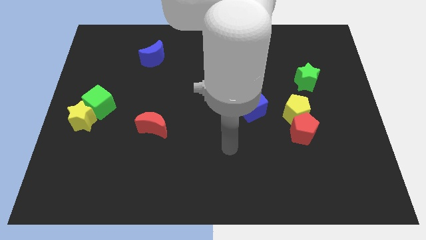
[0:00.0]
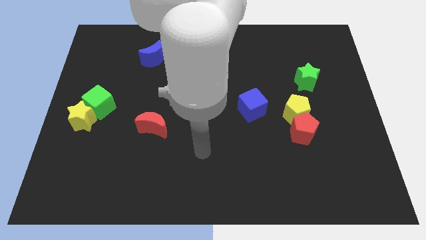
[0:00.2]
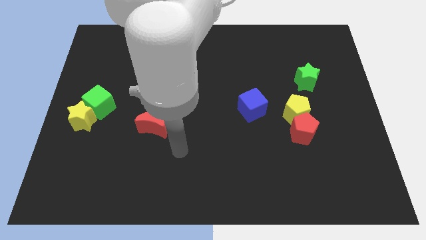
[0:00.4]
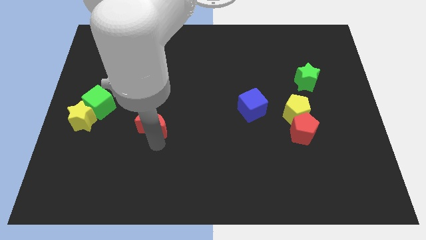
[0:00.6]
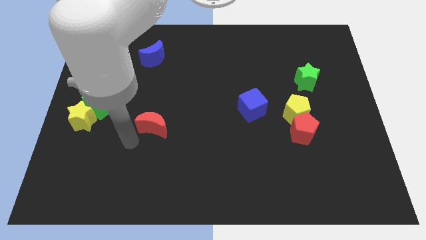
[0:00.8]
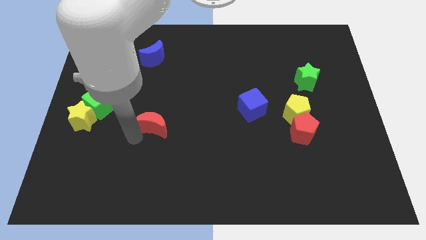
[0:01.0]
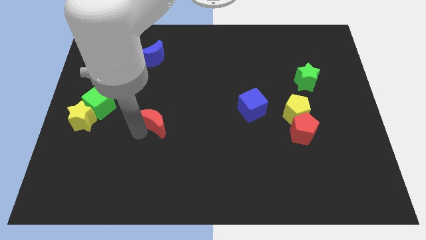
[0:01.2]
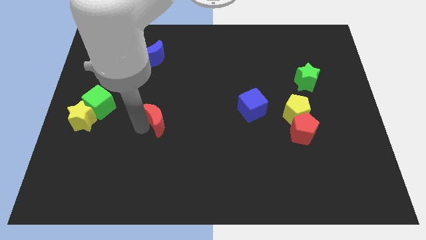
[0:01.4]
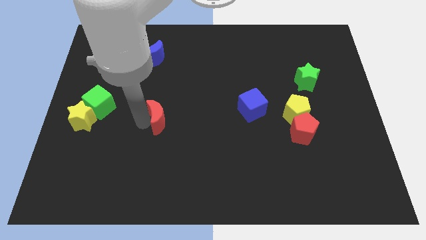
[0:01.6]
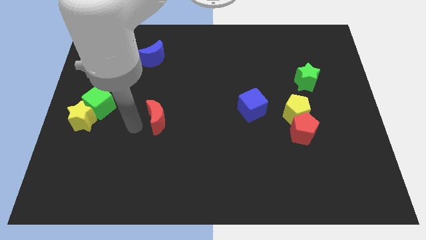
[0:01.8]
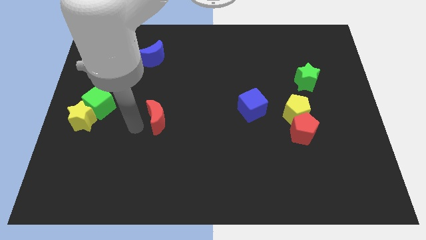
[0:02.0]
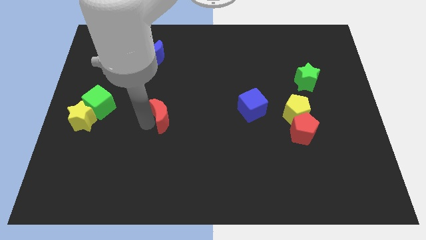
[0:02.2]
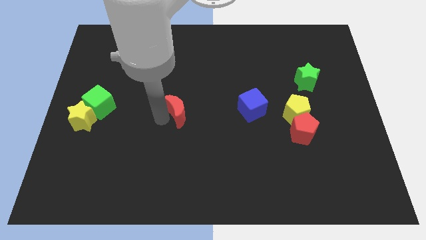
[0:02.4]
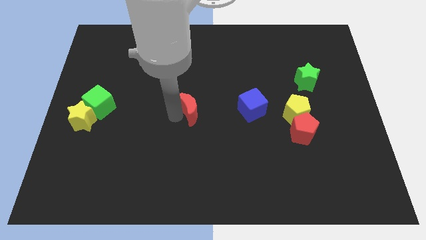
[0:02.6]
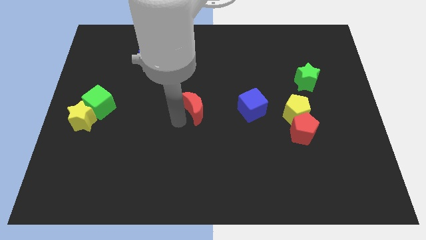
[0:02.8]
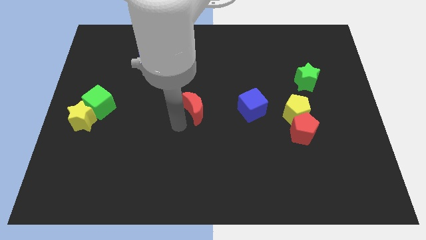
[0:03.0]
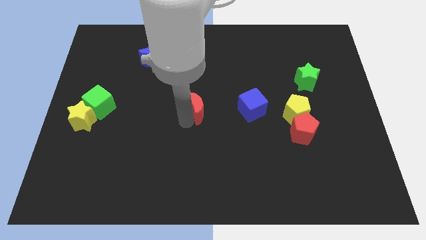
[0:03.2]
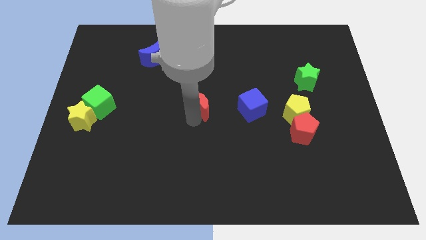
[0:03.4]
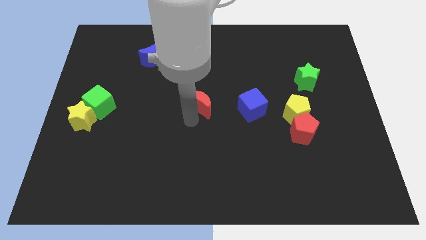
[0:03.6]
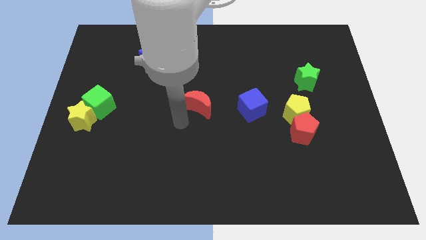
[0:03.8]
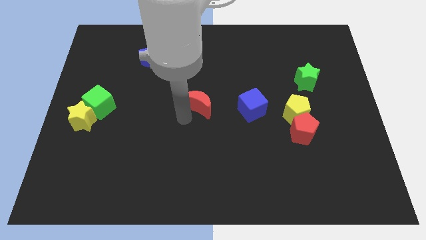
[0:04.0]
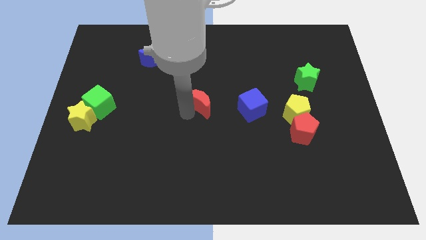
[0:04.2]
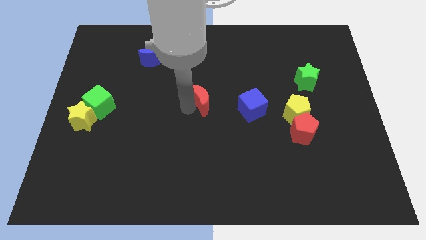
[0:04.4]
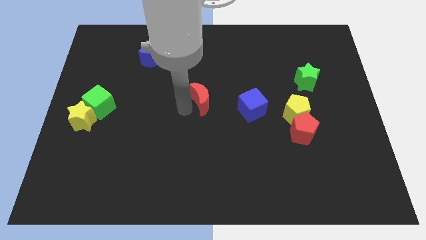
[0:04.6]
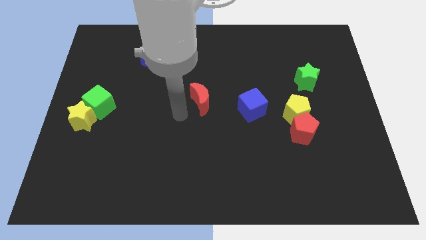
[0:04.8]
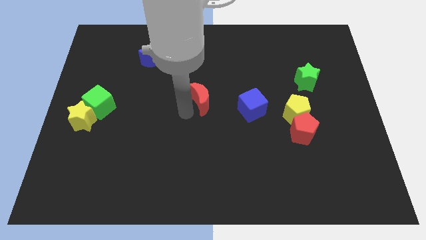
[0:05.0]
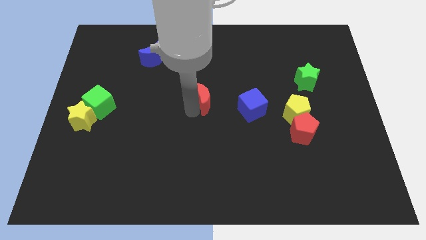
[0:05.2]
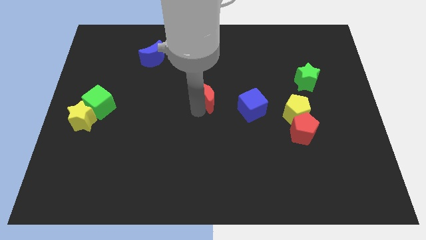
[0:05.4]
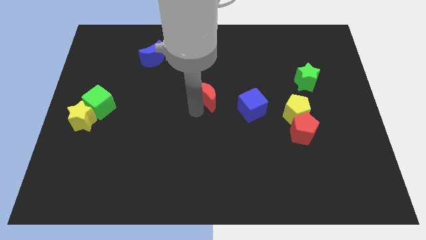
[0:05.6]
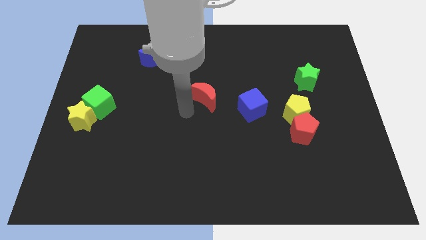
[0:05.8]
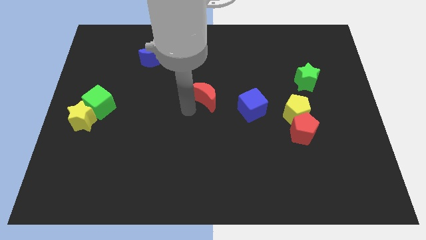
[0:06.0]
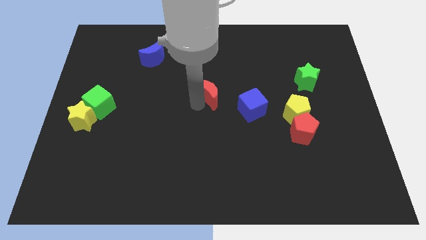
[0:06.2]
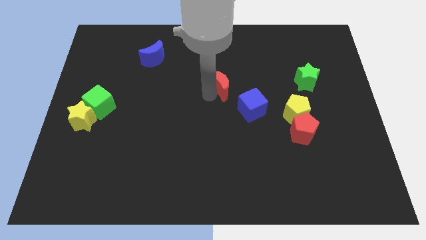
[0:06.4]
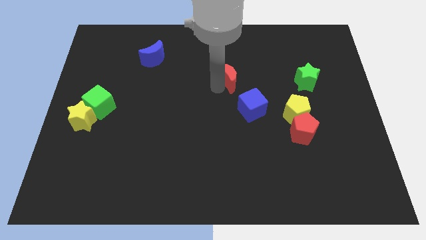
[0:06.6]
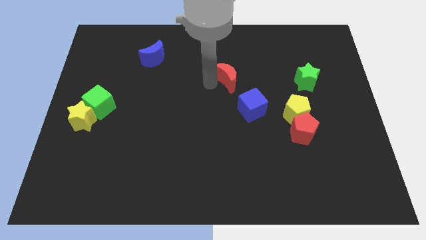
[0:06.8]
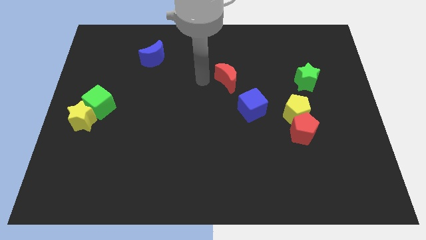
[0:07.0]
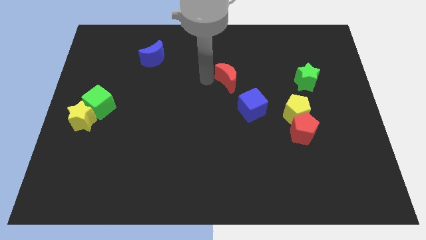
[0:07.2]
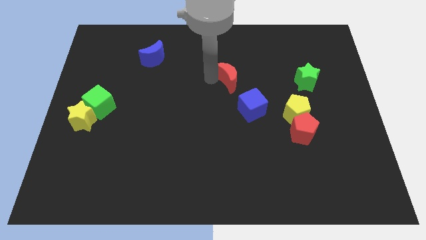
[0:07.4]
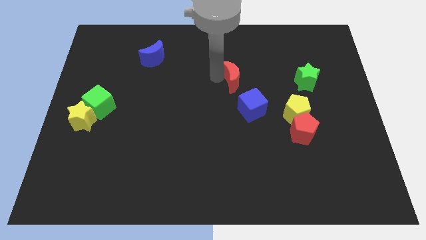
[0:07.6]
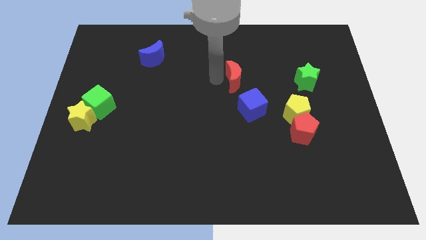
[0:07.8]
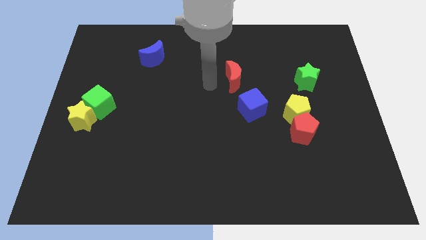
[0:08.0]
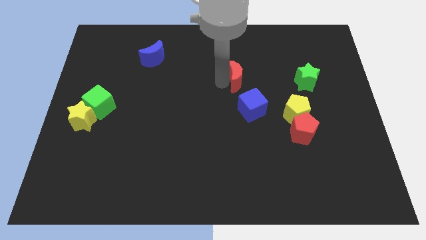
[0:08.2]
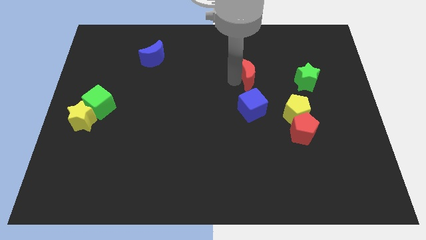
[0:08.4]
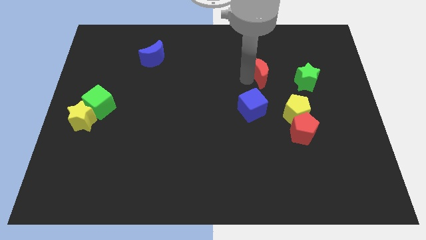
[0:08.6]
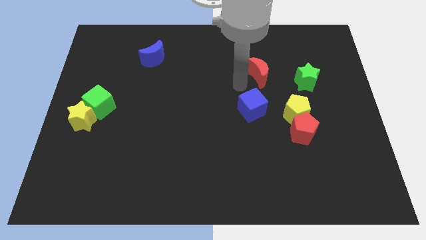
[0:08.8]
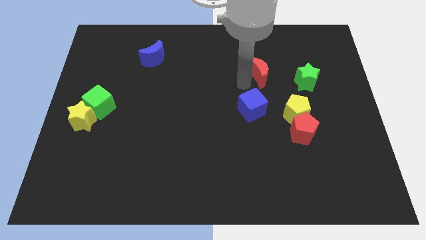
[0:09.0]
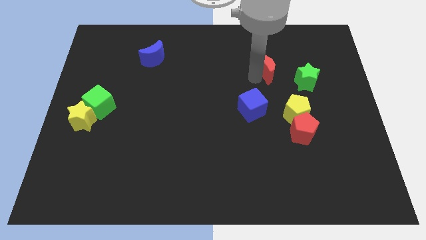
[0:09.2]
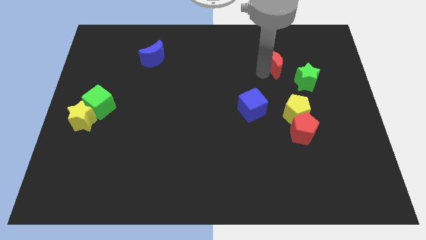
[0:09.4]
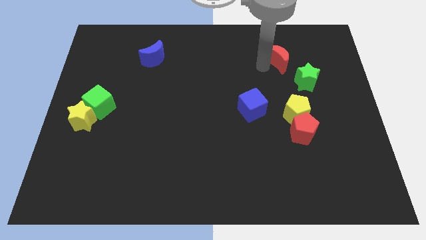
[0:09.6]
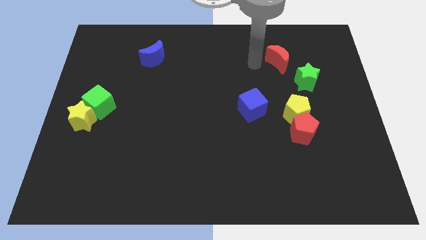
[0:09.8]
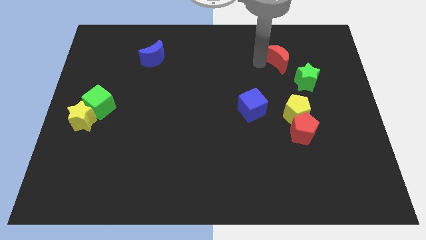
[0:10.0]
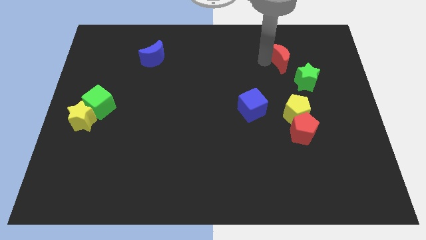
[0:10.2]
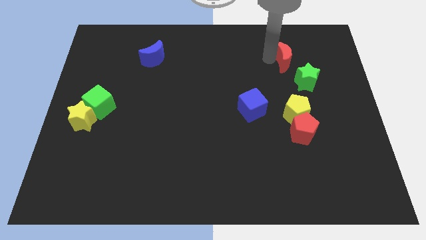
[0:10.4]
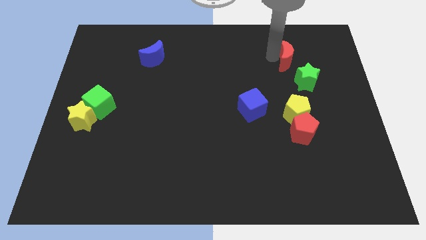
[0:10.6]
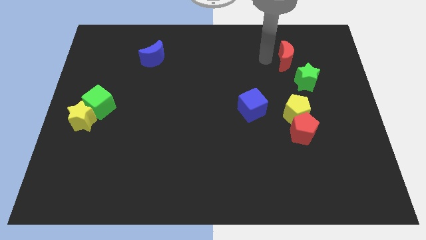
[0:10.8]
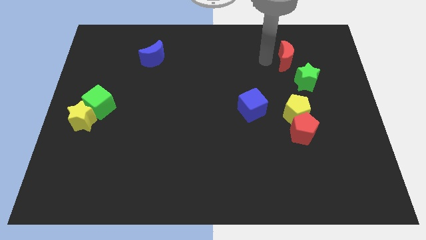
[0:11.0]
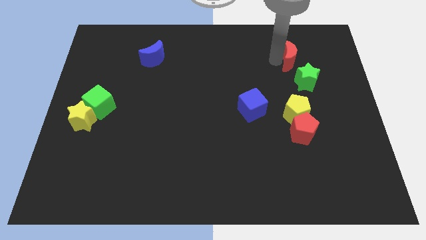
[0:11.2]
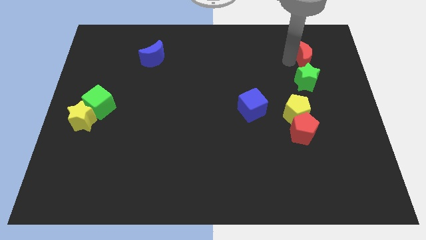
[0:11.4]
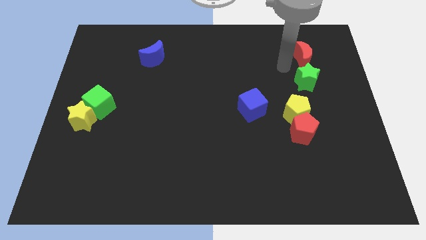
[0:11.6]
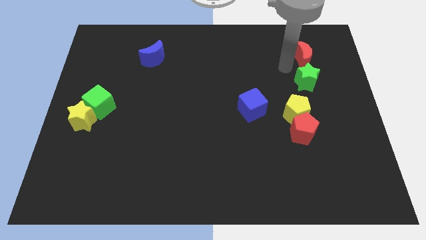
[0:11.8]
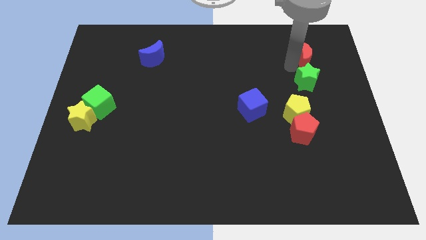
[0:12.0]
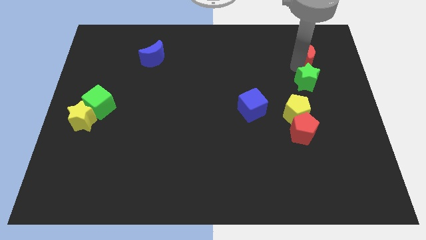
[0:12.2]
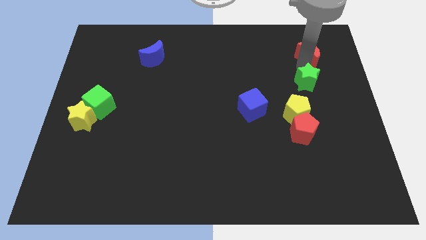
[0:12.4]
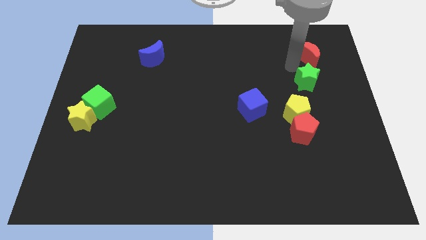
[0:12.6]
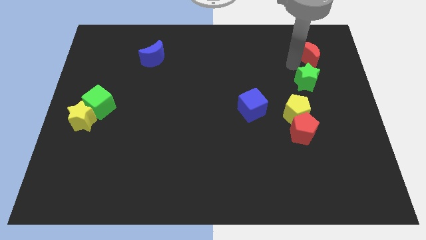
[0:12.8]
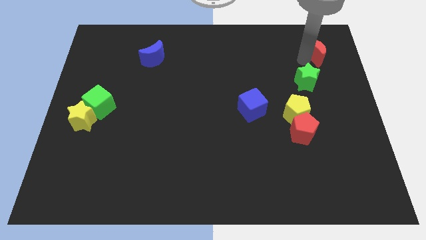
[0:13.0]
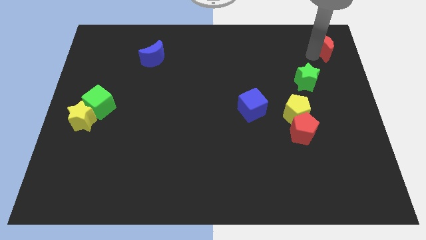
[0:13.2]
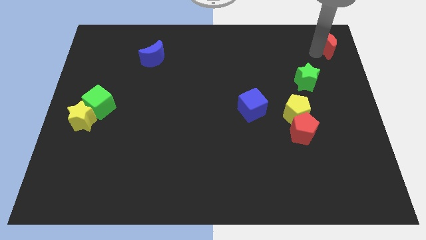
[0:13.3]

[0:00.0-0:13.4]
push the red moon to the top right of the board
